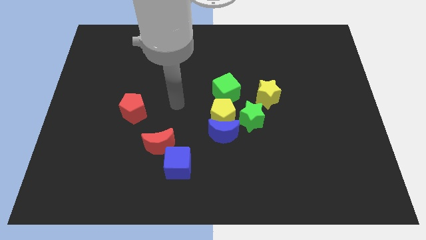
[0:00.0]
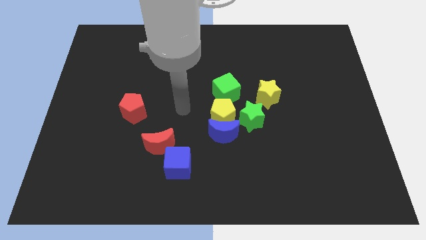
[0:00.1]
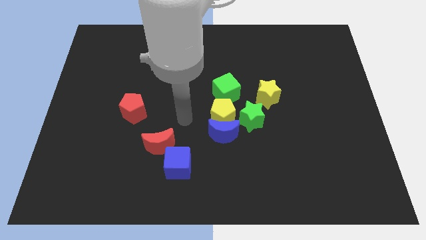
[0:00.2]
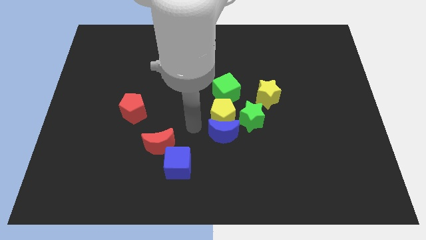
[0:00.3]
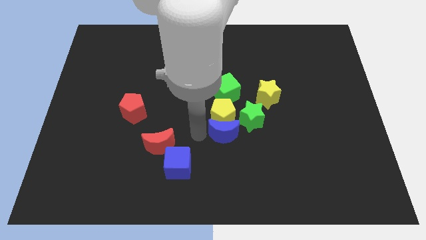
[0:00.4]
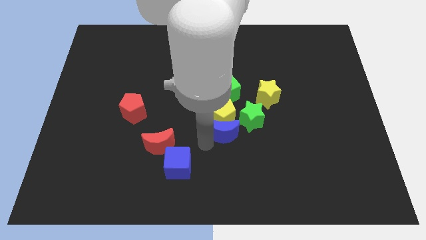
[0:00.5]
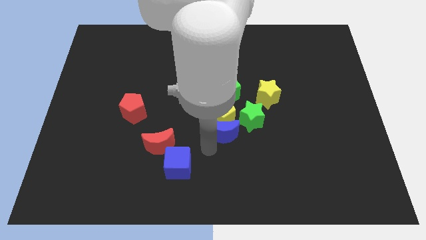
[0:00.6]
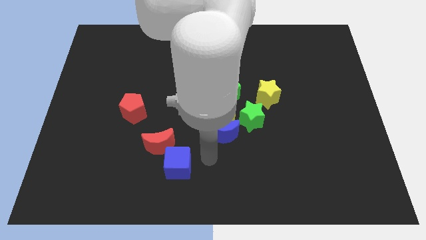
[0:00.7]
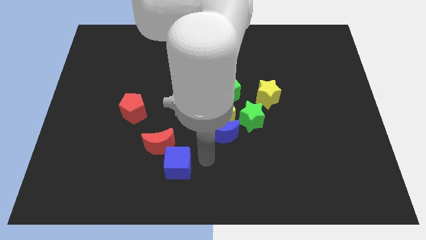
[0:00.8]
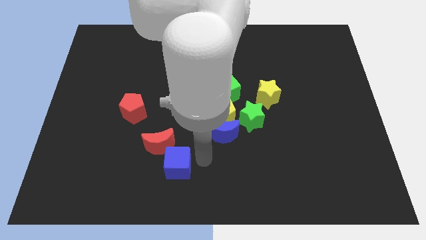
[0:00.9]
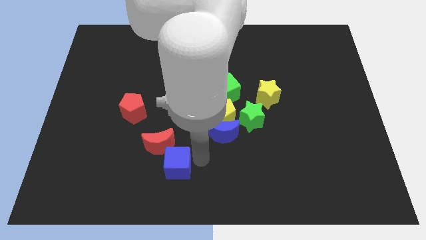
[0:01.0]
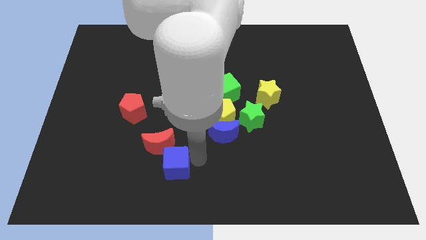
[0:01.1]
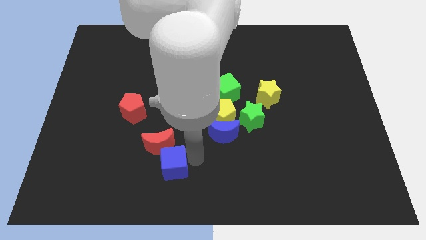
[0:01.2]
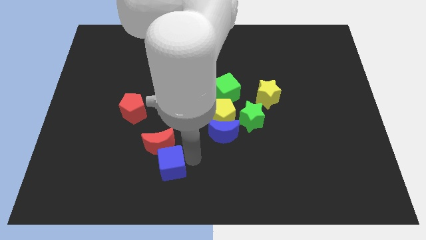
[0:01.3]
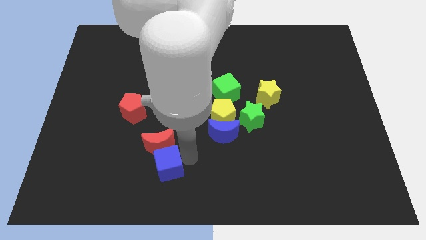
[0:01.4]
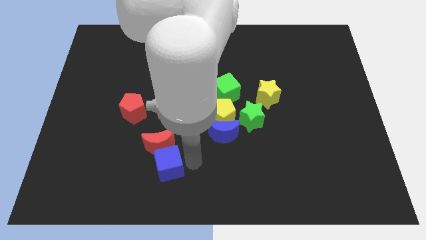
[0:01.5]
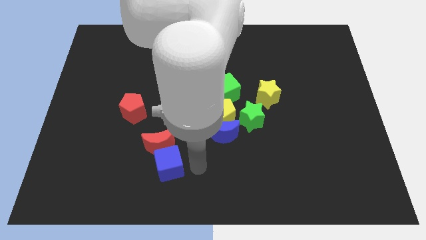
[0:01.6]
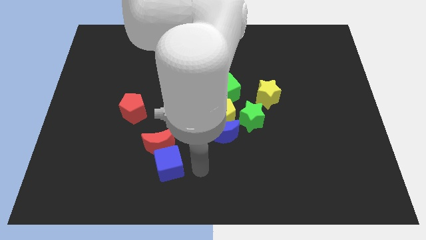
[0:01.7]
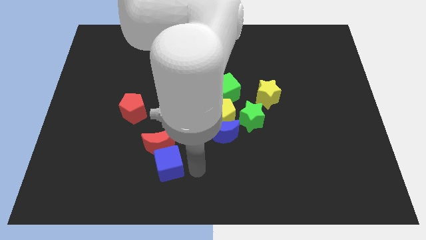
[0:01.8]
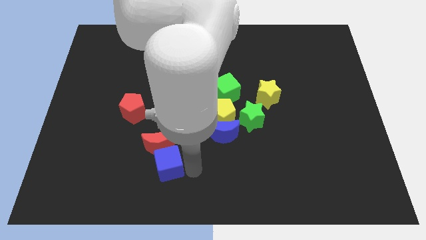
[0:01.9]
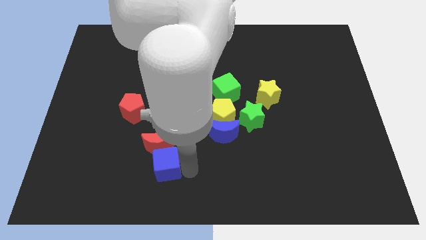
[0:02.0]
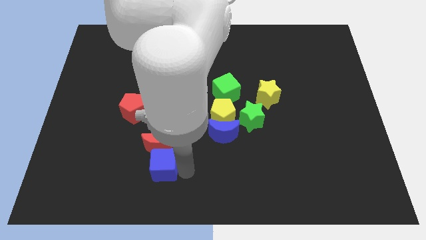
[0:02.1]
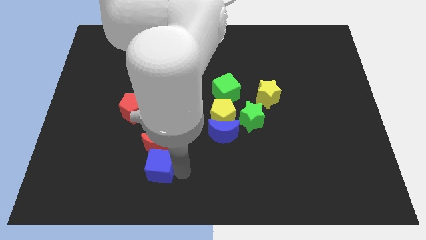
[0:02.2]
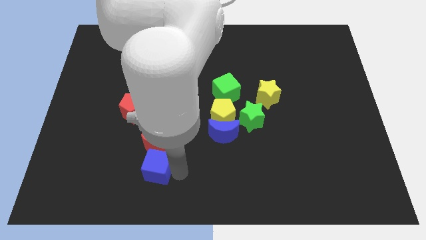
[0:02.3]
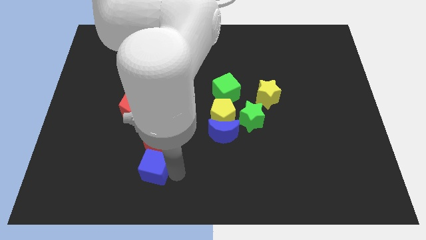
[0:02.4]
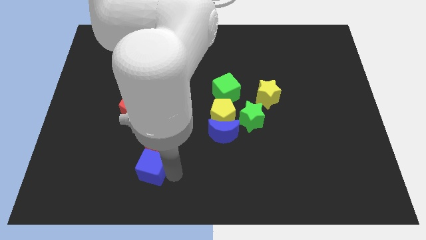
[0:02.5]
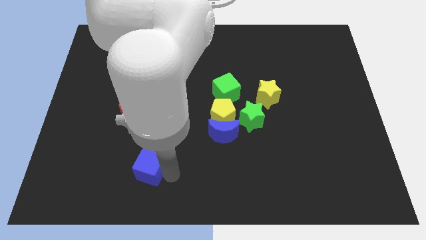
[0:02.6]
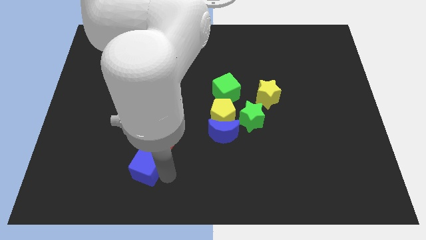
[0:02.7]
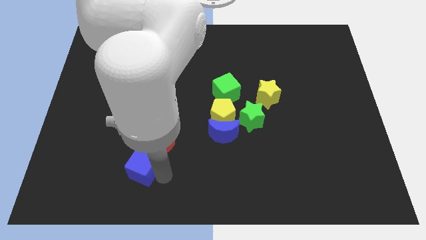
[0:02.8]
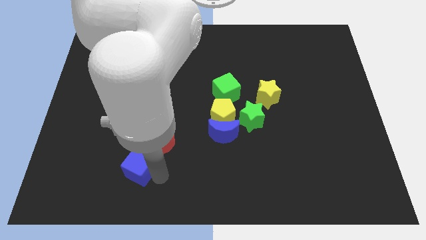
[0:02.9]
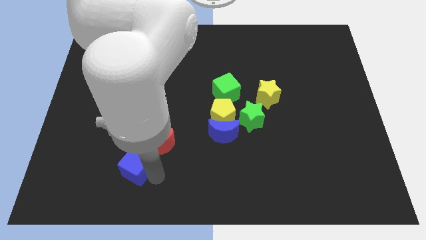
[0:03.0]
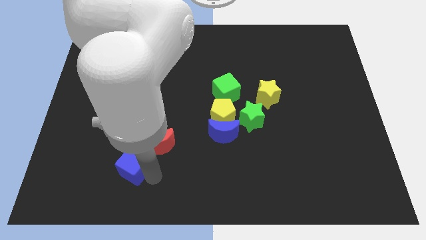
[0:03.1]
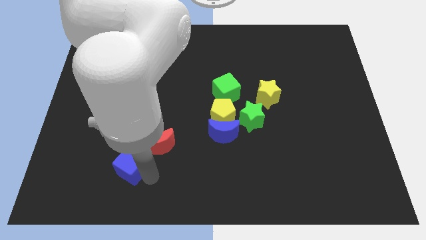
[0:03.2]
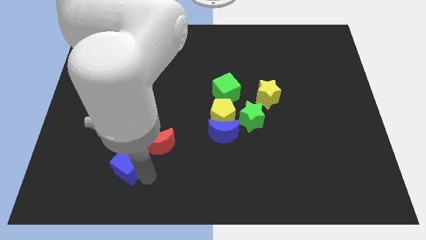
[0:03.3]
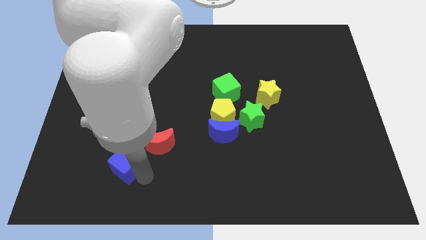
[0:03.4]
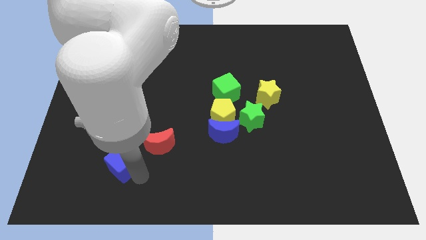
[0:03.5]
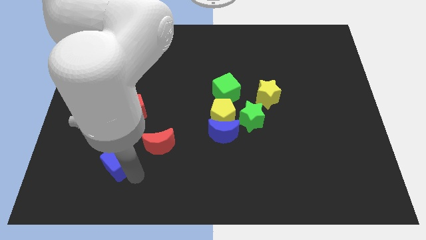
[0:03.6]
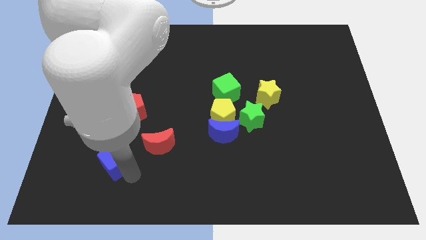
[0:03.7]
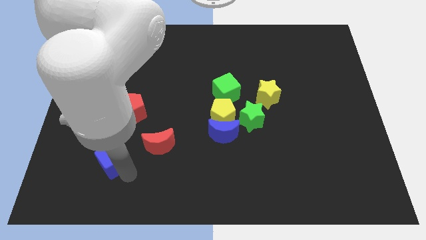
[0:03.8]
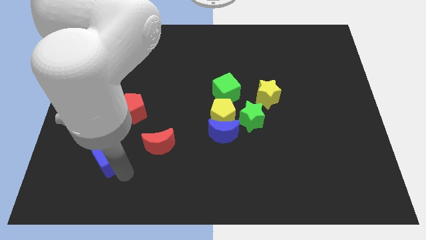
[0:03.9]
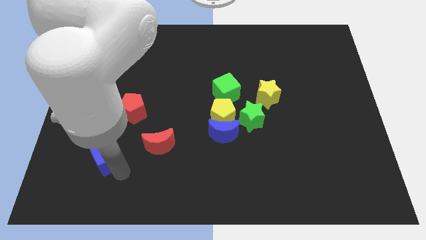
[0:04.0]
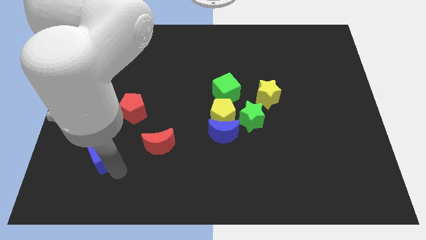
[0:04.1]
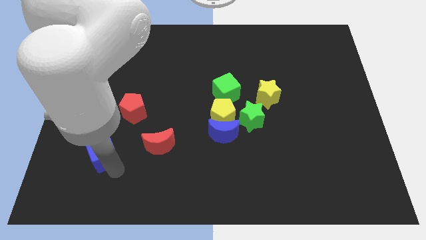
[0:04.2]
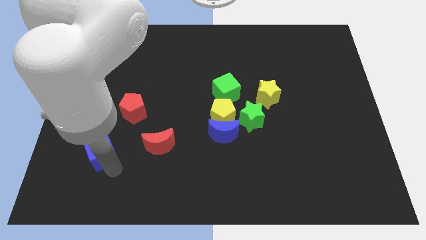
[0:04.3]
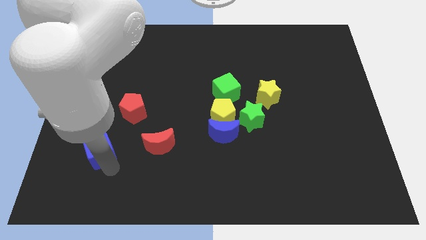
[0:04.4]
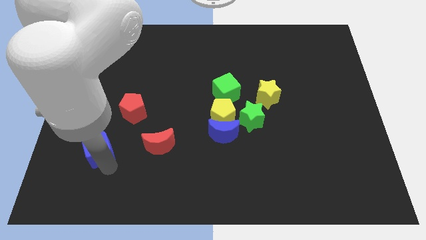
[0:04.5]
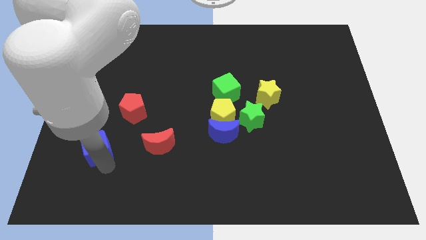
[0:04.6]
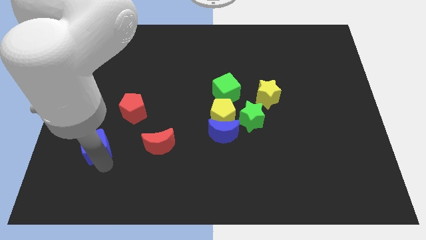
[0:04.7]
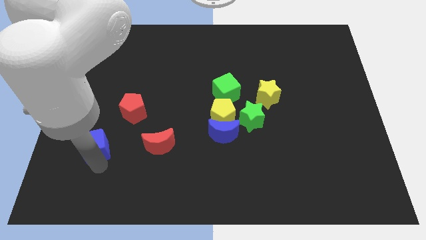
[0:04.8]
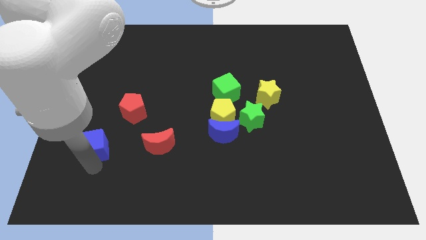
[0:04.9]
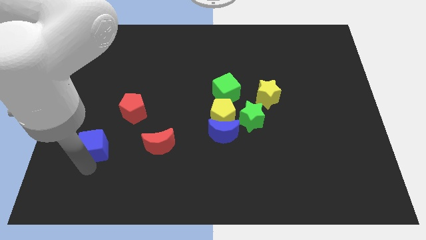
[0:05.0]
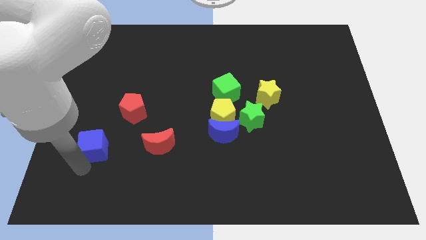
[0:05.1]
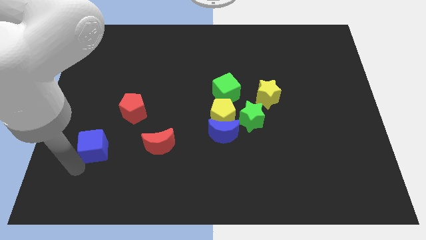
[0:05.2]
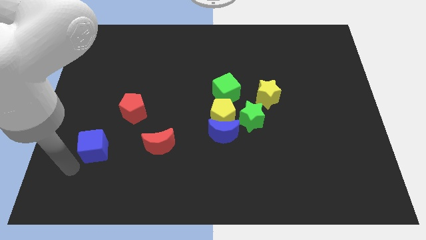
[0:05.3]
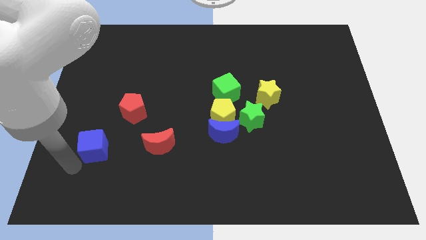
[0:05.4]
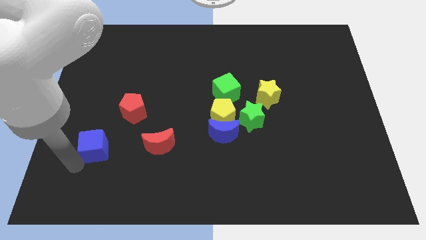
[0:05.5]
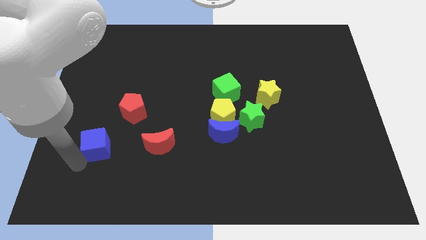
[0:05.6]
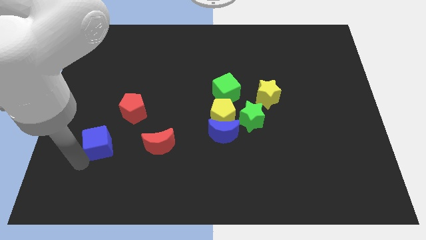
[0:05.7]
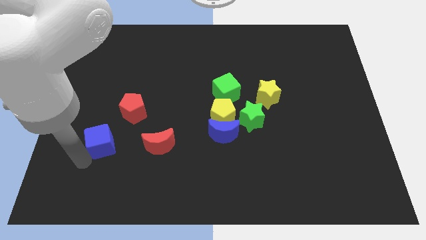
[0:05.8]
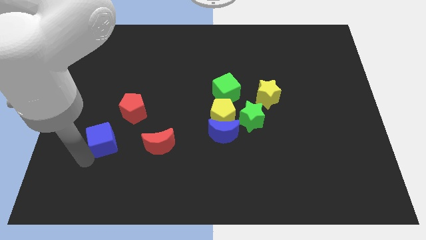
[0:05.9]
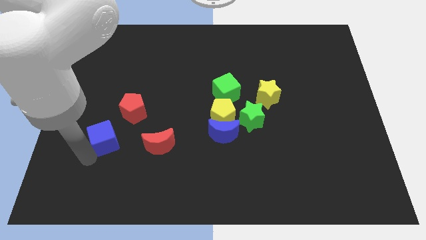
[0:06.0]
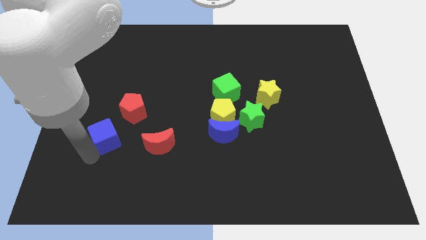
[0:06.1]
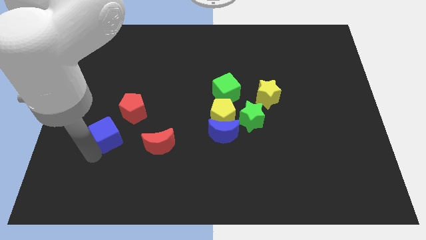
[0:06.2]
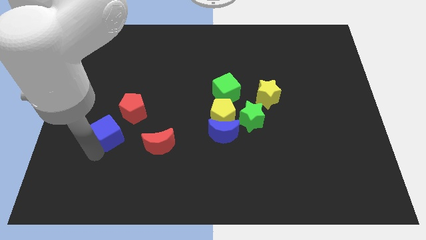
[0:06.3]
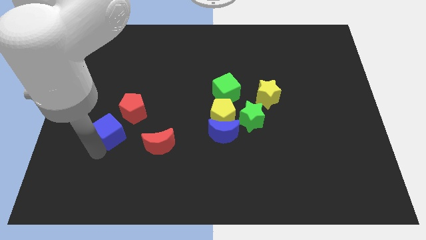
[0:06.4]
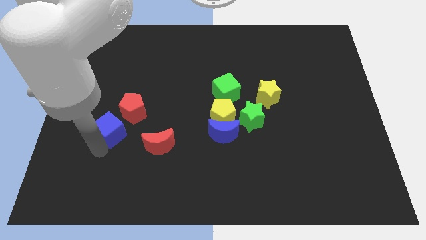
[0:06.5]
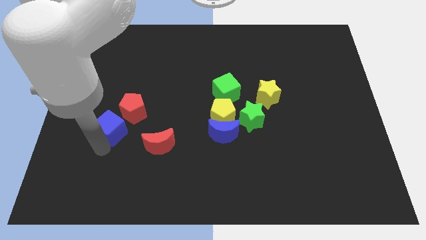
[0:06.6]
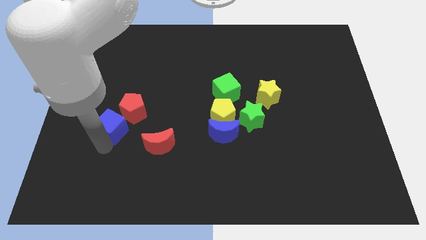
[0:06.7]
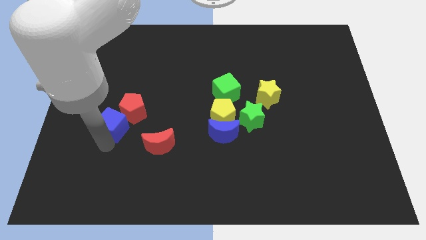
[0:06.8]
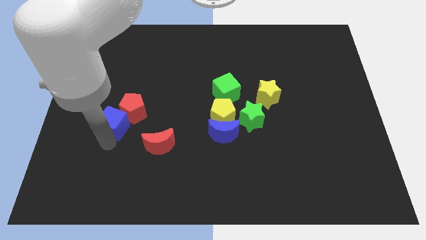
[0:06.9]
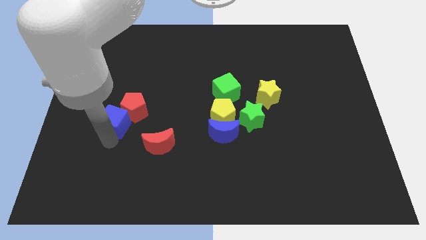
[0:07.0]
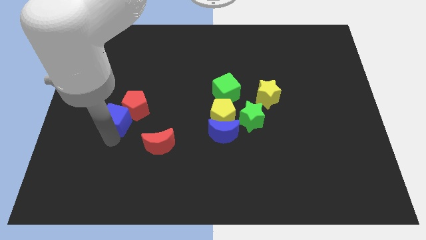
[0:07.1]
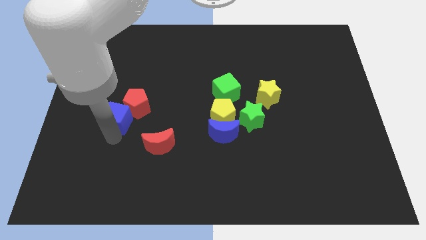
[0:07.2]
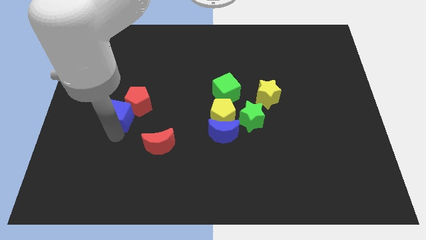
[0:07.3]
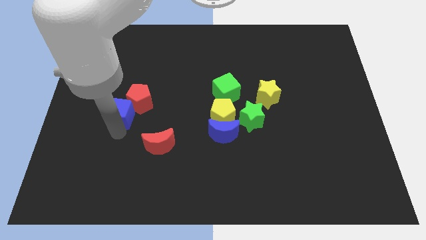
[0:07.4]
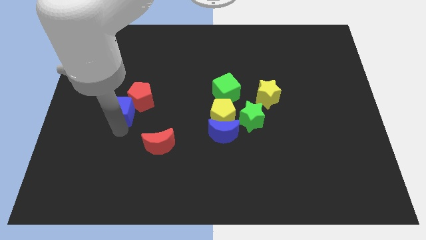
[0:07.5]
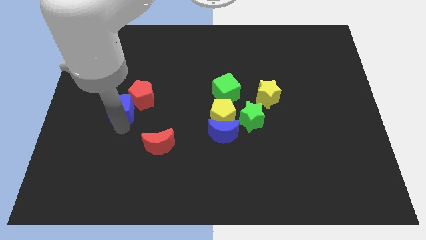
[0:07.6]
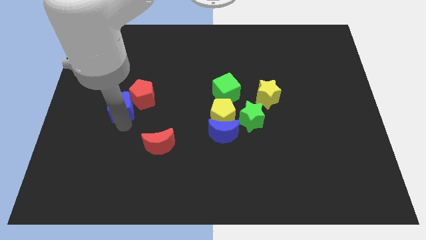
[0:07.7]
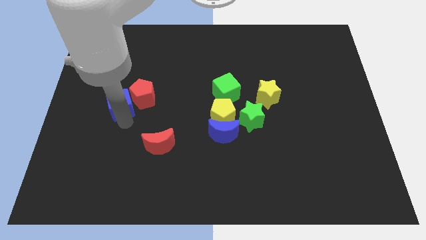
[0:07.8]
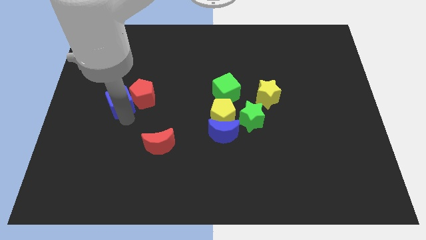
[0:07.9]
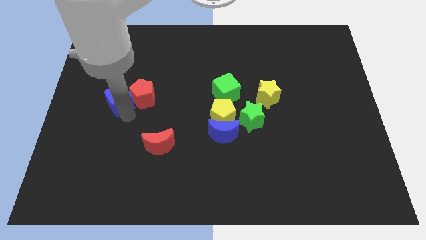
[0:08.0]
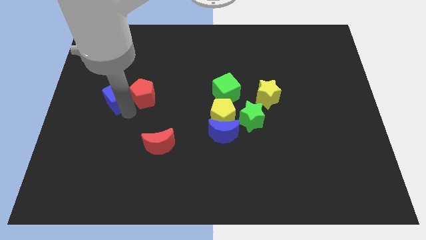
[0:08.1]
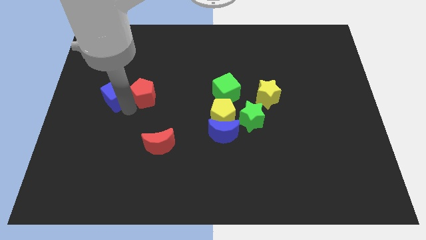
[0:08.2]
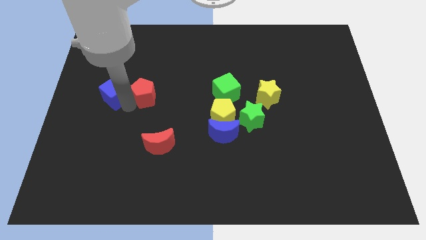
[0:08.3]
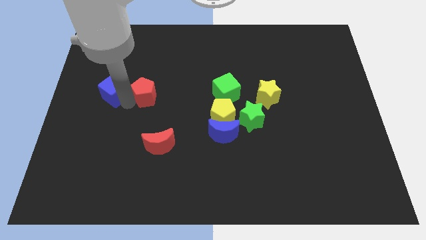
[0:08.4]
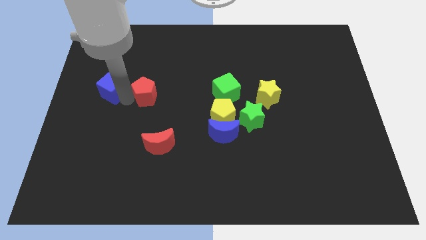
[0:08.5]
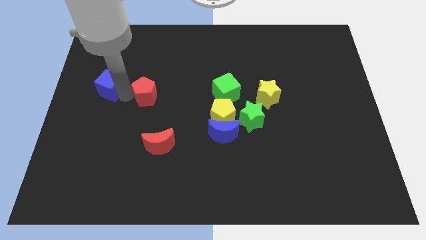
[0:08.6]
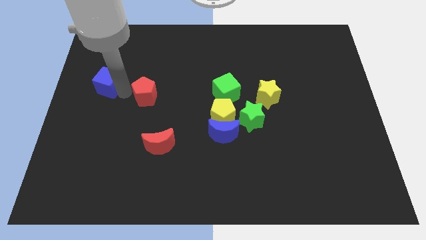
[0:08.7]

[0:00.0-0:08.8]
put the blue cube to the left side
